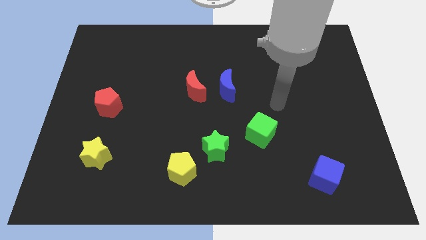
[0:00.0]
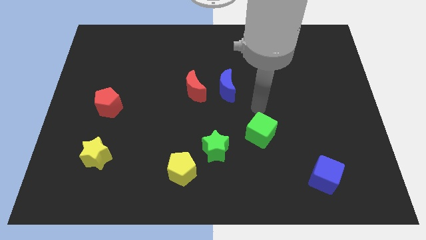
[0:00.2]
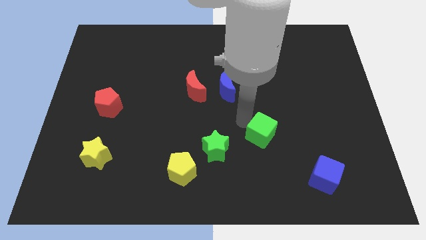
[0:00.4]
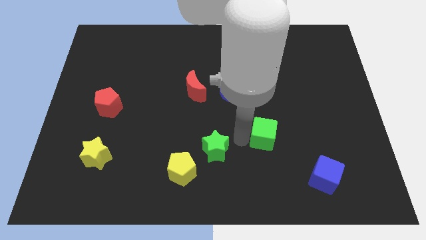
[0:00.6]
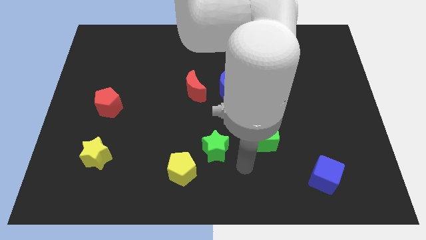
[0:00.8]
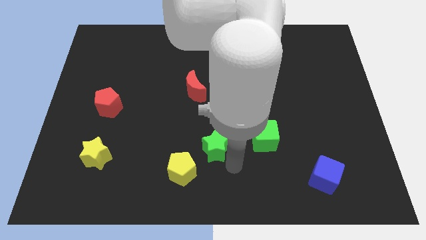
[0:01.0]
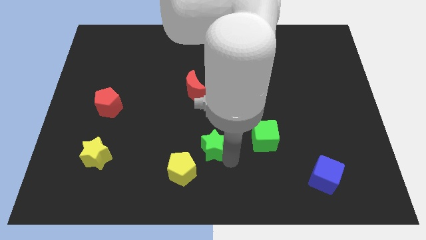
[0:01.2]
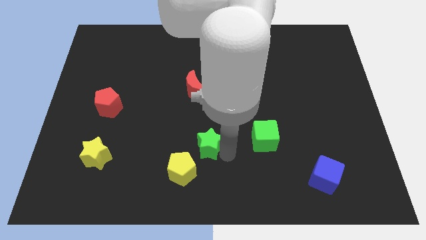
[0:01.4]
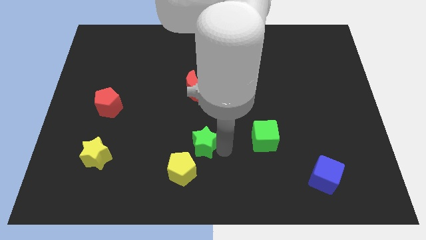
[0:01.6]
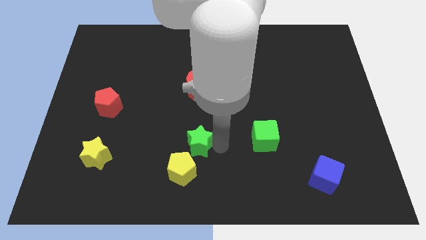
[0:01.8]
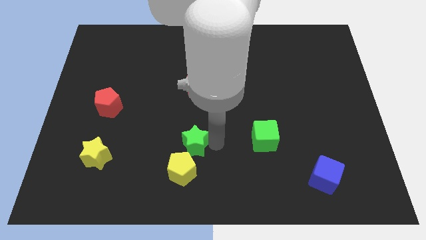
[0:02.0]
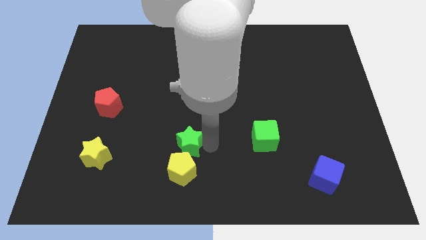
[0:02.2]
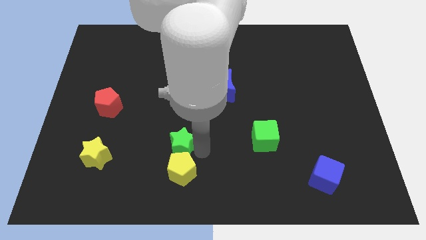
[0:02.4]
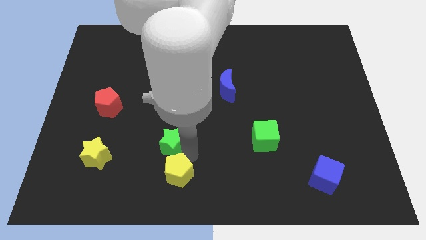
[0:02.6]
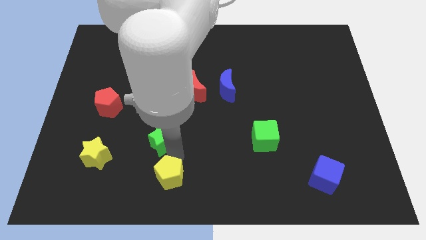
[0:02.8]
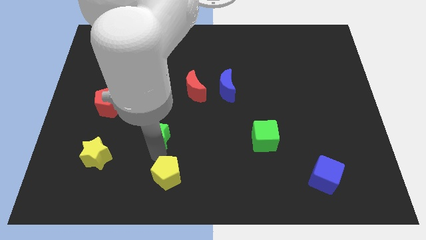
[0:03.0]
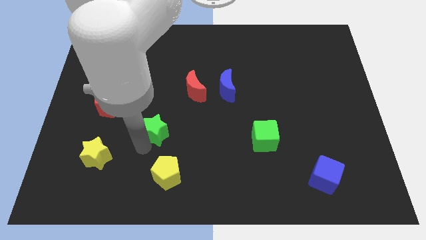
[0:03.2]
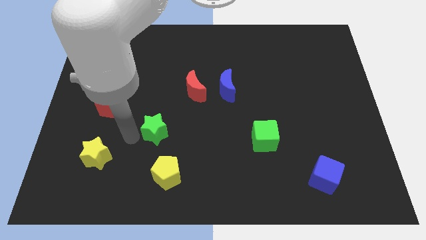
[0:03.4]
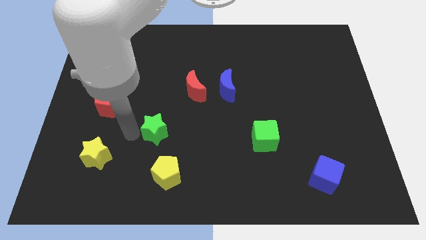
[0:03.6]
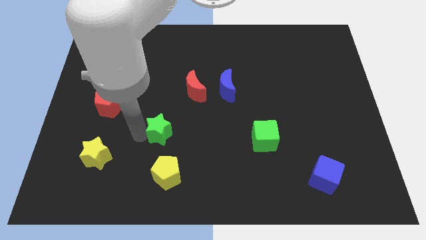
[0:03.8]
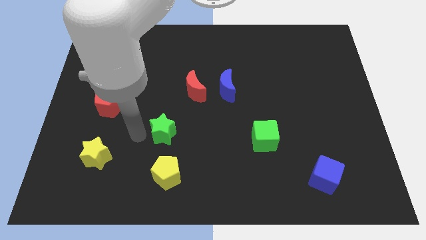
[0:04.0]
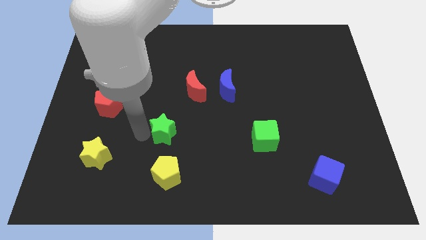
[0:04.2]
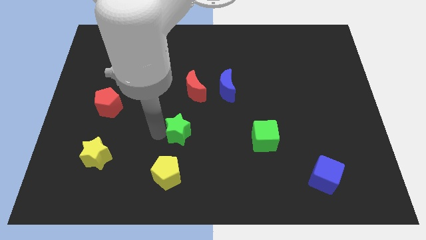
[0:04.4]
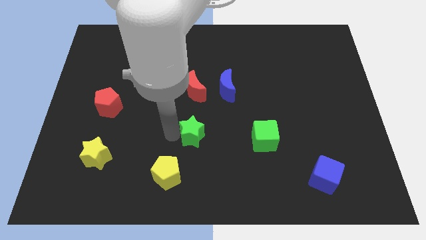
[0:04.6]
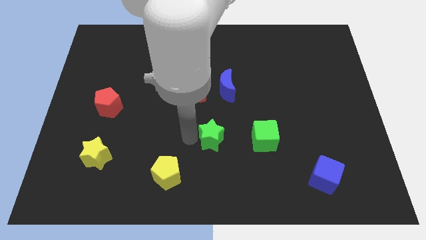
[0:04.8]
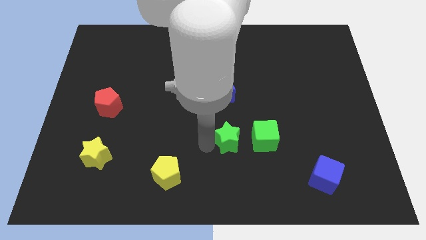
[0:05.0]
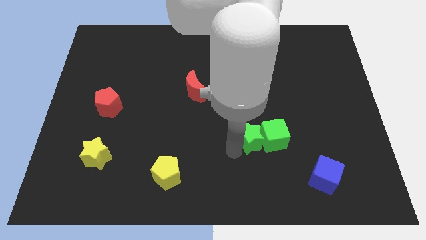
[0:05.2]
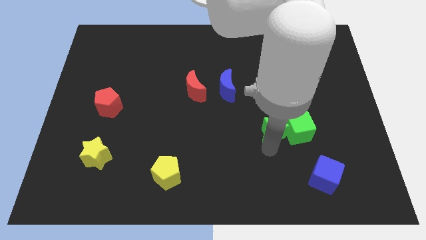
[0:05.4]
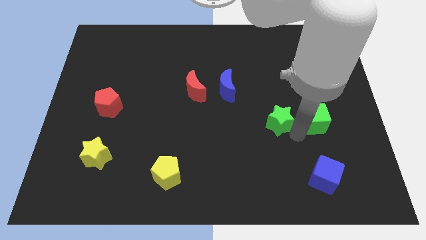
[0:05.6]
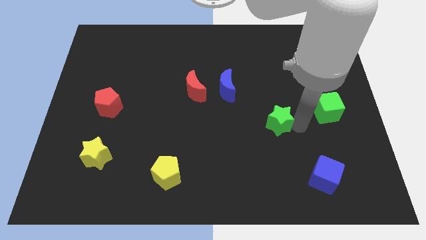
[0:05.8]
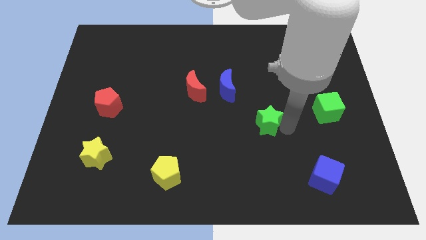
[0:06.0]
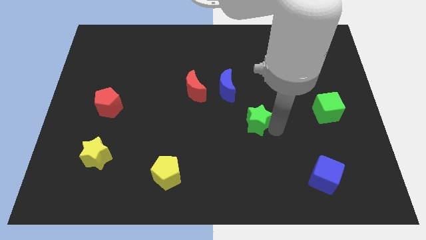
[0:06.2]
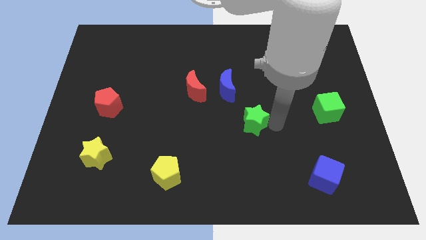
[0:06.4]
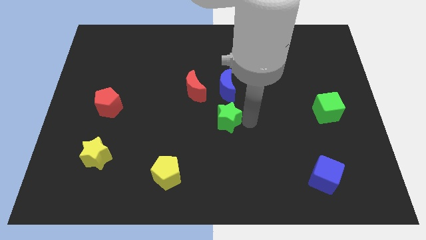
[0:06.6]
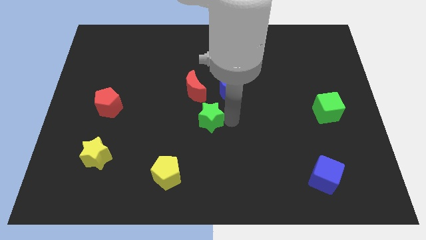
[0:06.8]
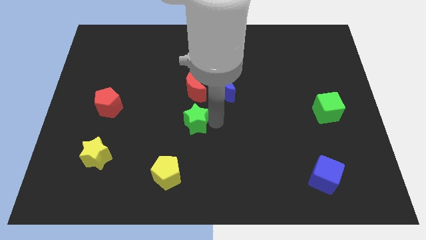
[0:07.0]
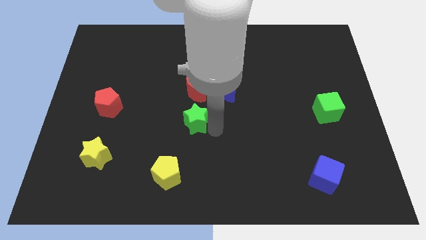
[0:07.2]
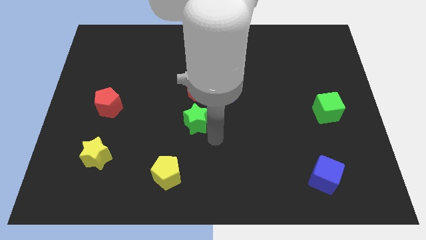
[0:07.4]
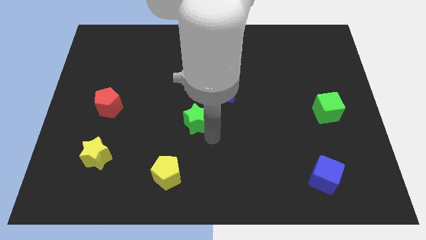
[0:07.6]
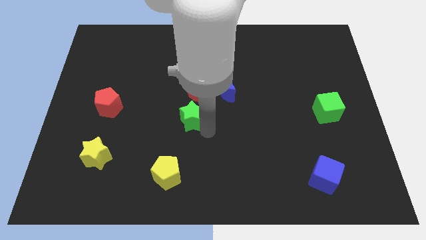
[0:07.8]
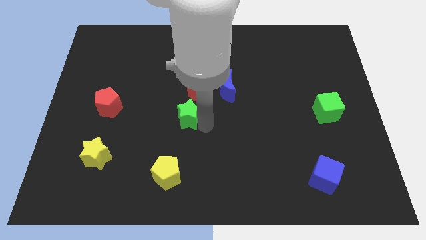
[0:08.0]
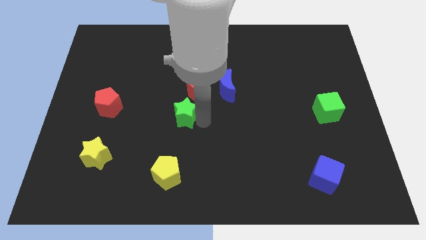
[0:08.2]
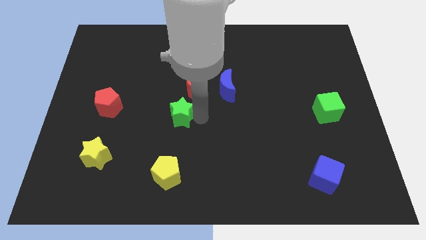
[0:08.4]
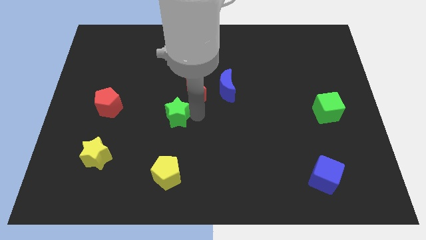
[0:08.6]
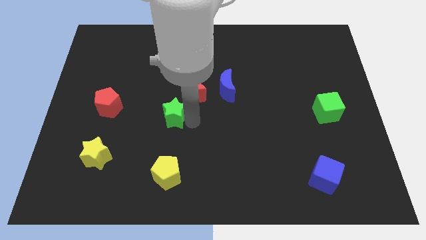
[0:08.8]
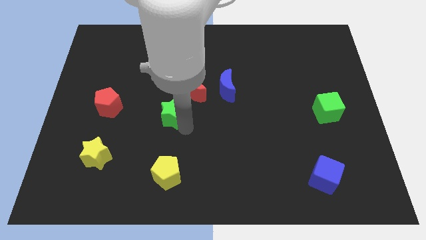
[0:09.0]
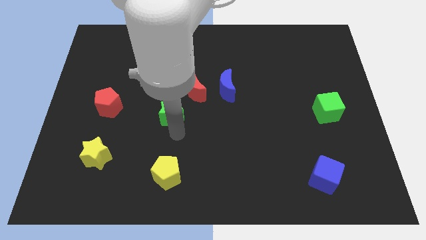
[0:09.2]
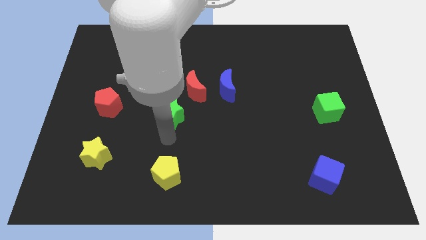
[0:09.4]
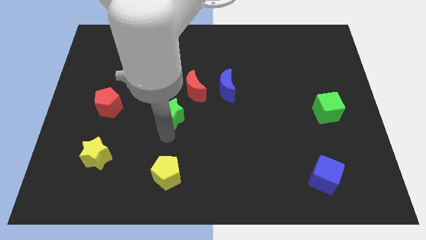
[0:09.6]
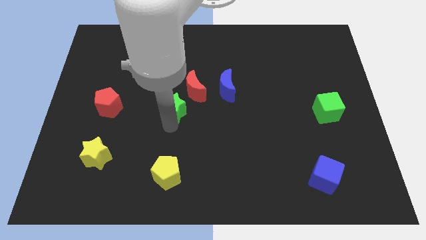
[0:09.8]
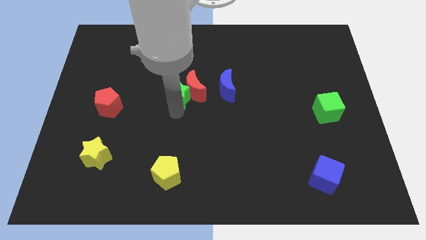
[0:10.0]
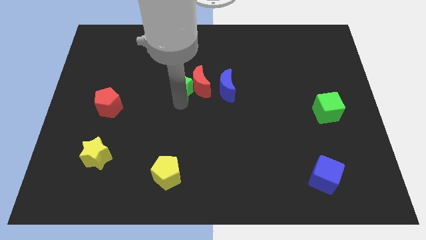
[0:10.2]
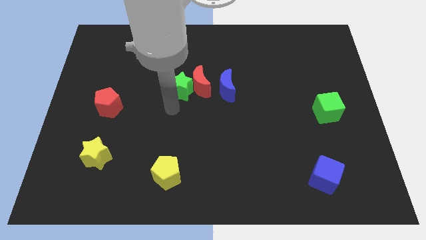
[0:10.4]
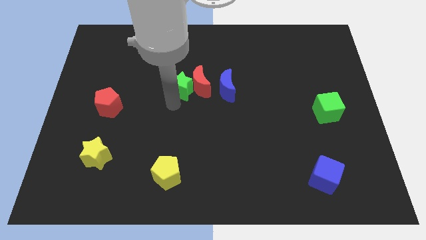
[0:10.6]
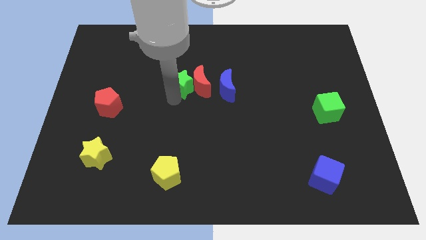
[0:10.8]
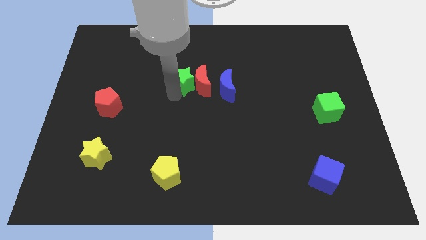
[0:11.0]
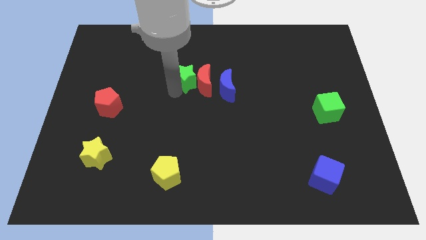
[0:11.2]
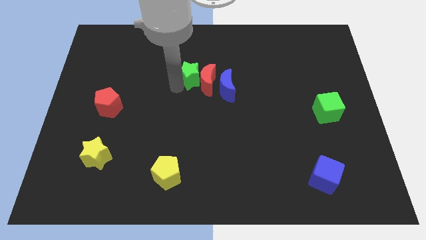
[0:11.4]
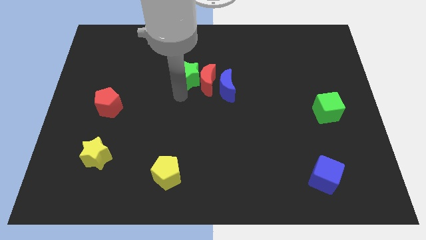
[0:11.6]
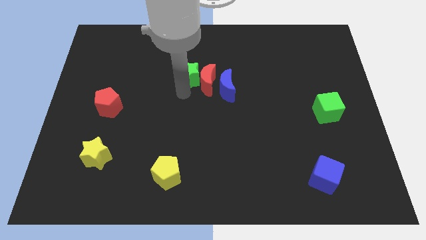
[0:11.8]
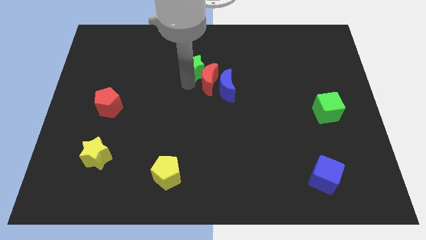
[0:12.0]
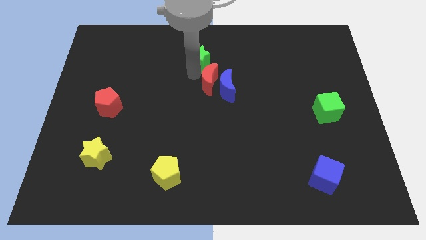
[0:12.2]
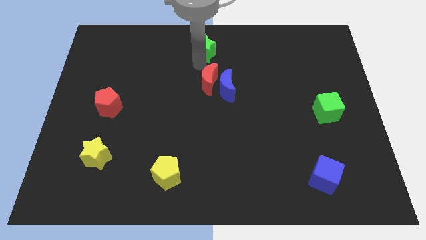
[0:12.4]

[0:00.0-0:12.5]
slide the green star to the top

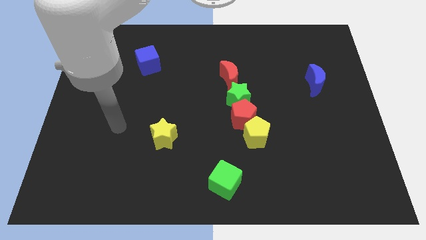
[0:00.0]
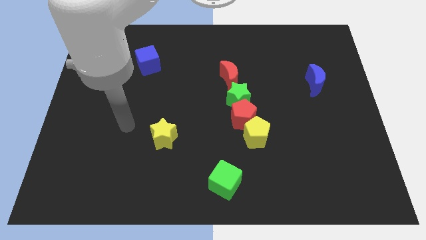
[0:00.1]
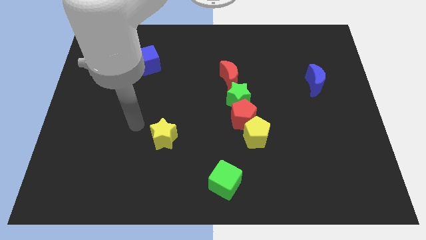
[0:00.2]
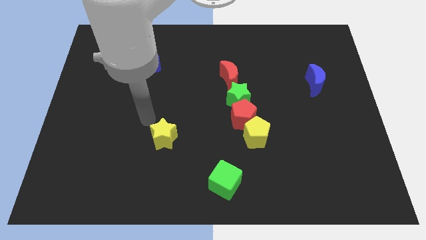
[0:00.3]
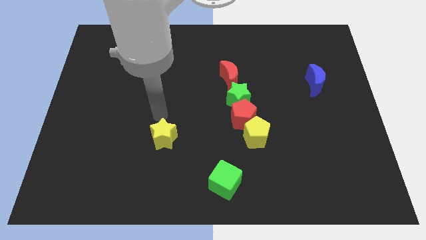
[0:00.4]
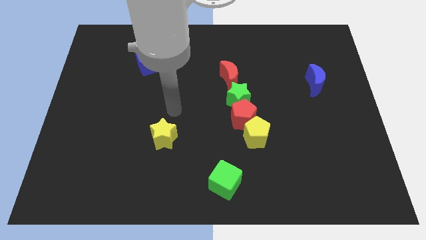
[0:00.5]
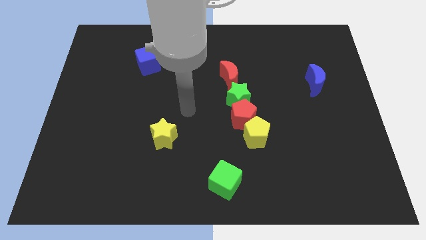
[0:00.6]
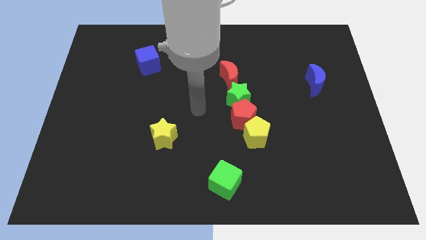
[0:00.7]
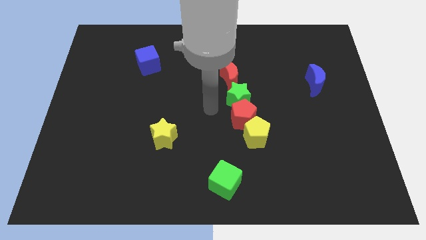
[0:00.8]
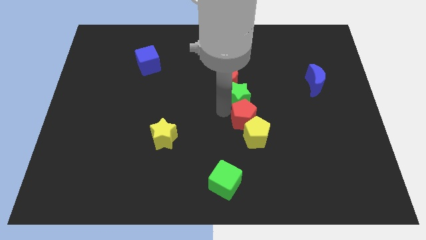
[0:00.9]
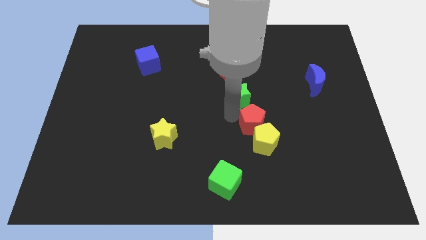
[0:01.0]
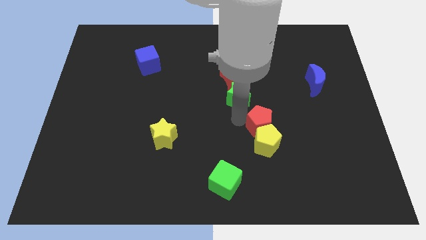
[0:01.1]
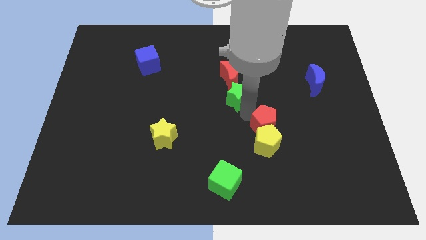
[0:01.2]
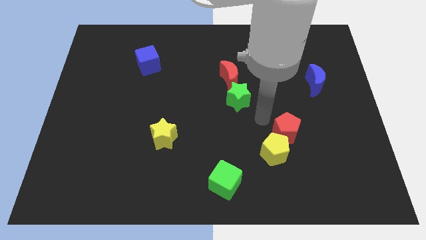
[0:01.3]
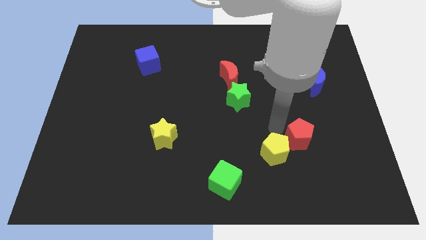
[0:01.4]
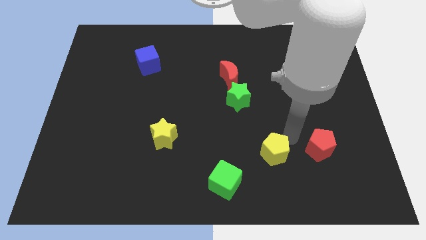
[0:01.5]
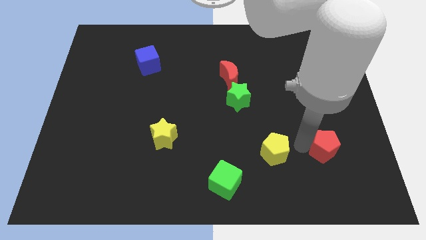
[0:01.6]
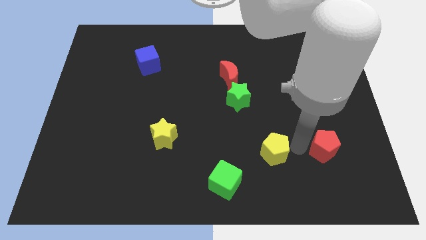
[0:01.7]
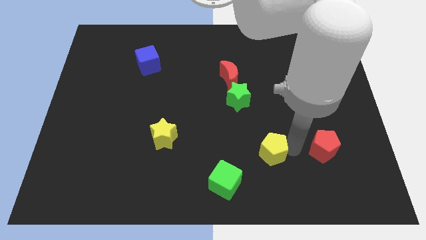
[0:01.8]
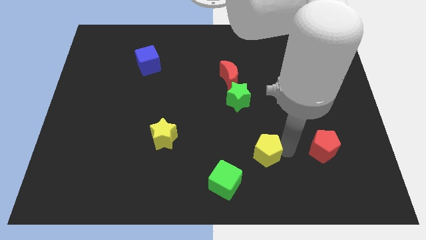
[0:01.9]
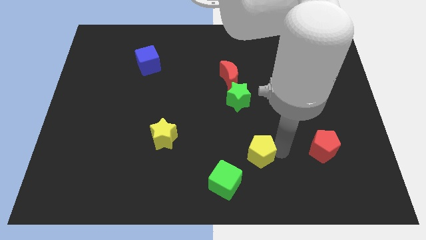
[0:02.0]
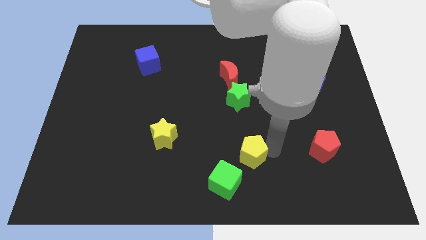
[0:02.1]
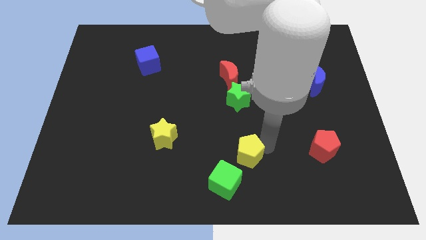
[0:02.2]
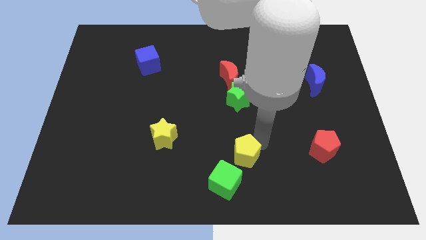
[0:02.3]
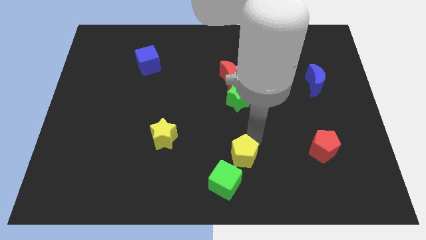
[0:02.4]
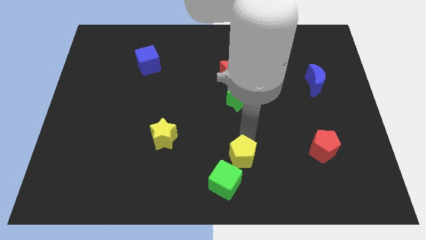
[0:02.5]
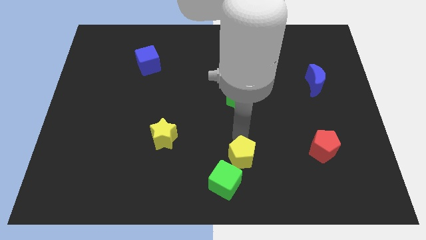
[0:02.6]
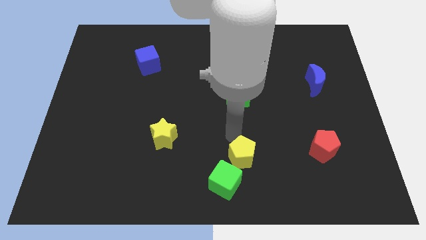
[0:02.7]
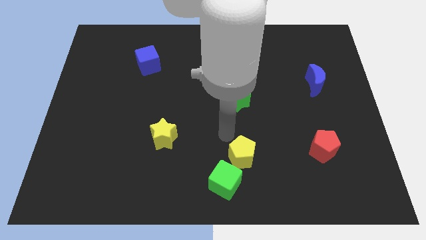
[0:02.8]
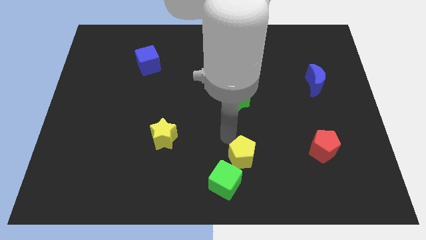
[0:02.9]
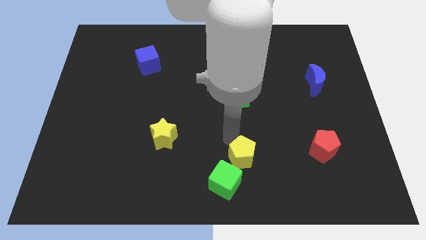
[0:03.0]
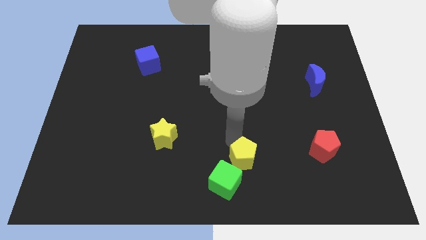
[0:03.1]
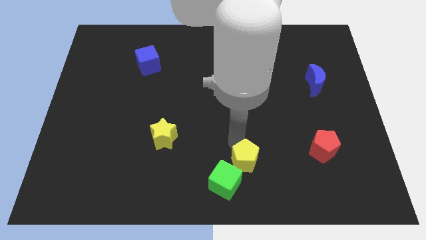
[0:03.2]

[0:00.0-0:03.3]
move the yellow pentagon to the bottom side
